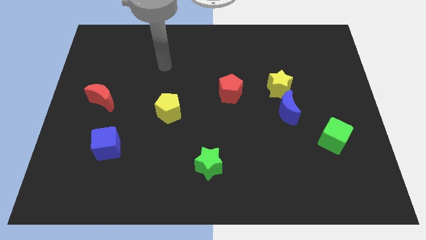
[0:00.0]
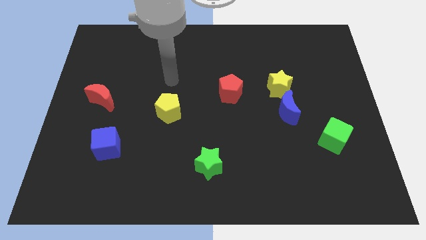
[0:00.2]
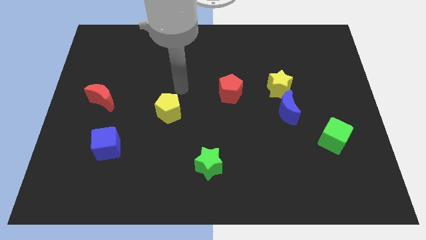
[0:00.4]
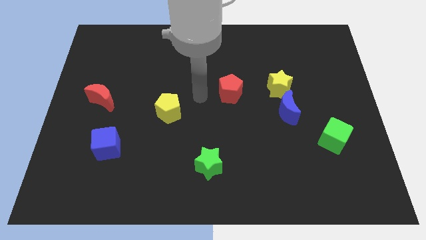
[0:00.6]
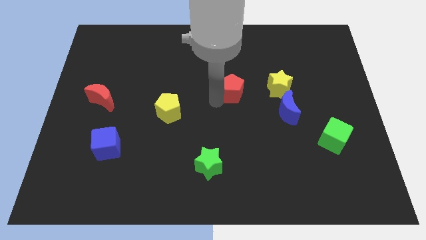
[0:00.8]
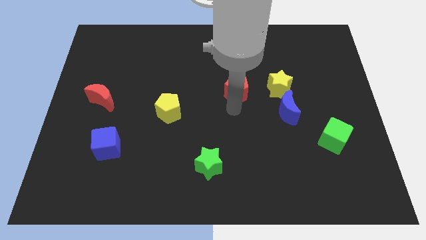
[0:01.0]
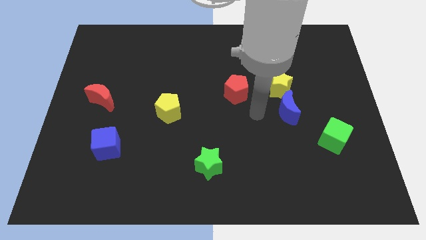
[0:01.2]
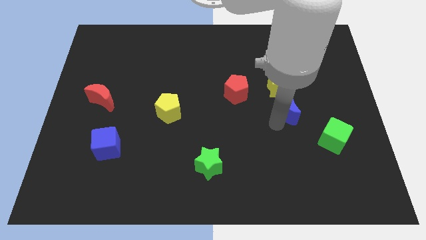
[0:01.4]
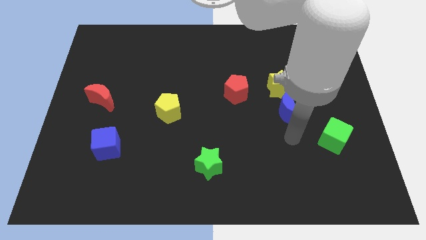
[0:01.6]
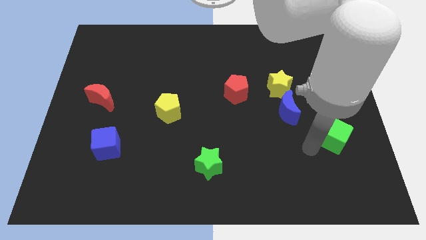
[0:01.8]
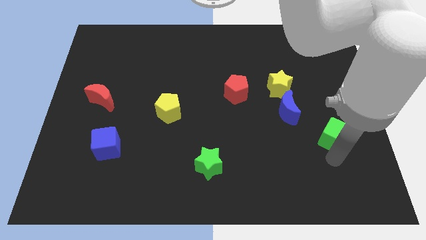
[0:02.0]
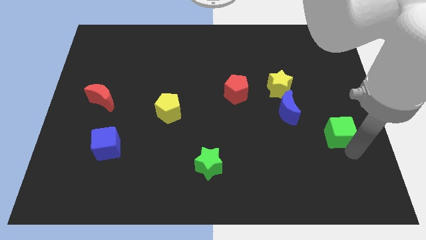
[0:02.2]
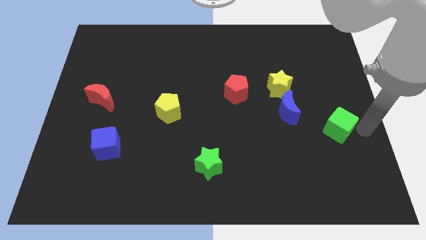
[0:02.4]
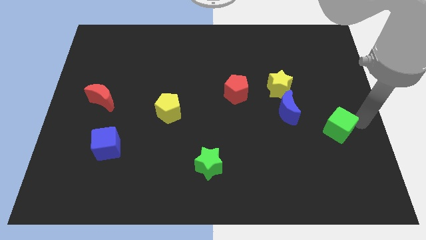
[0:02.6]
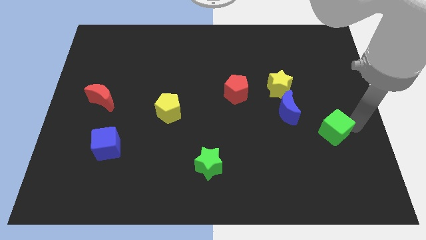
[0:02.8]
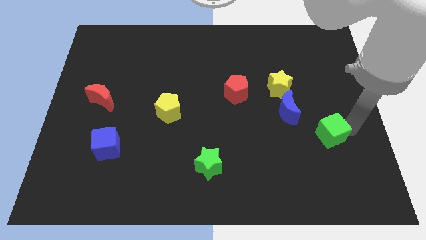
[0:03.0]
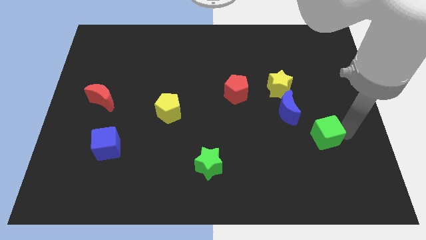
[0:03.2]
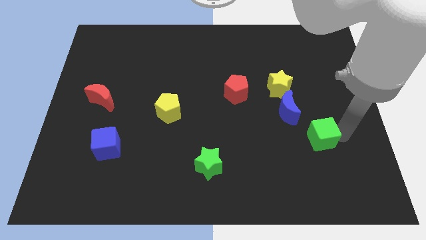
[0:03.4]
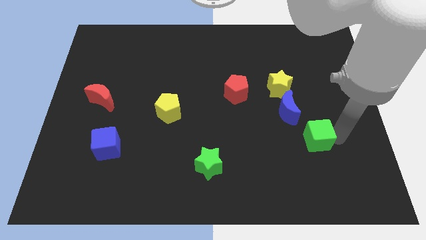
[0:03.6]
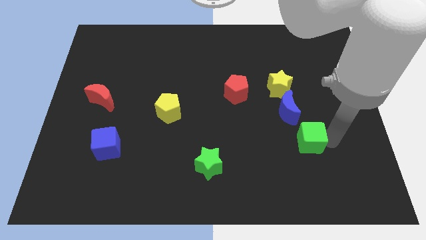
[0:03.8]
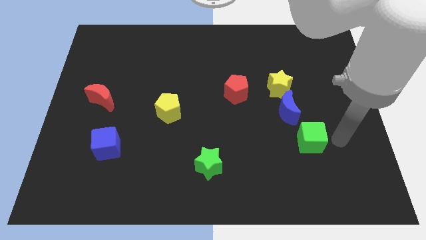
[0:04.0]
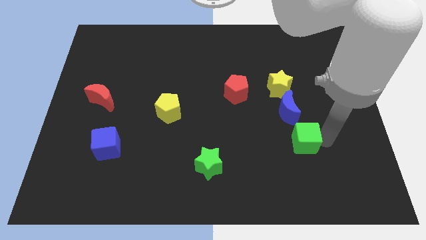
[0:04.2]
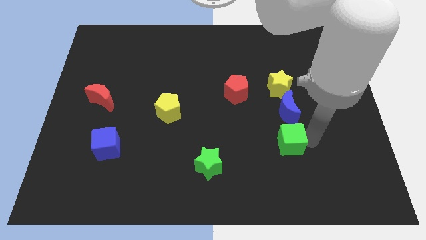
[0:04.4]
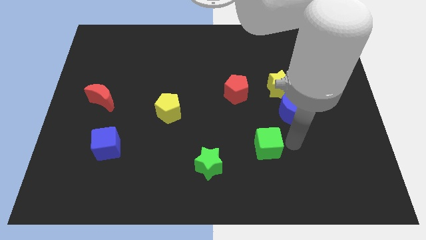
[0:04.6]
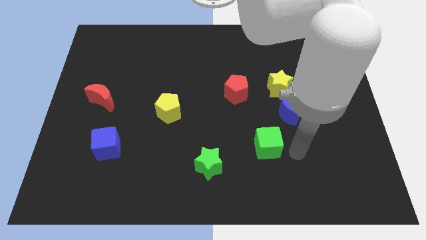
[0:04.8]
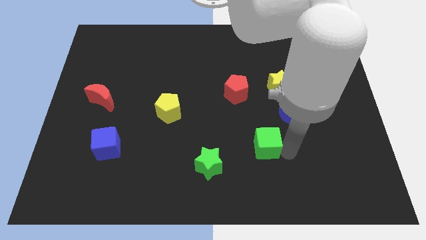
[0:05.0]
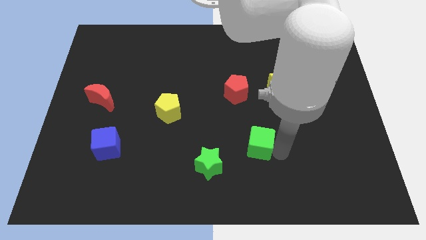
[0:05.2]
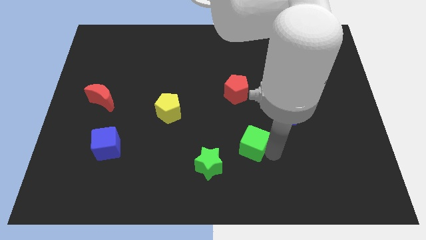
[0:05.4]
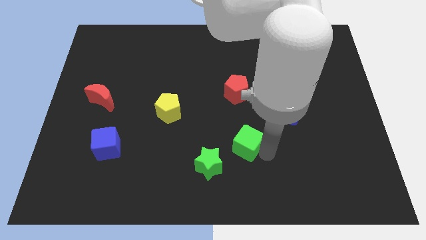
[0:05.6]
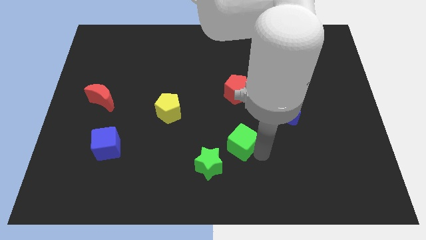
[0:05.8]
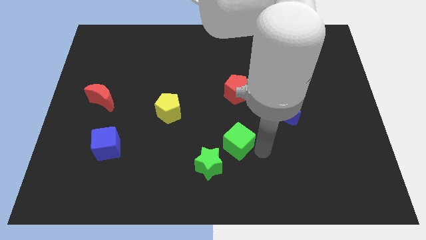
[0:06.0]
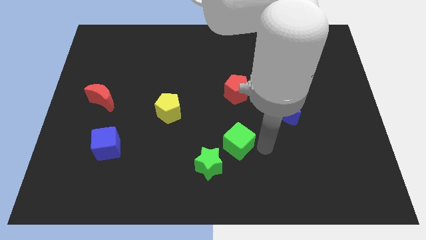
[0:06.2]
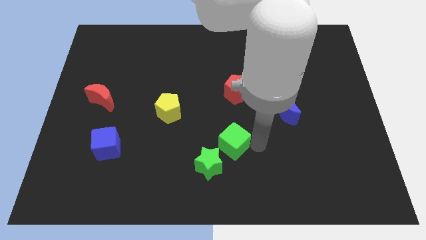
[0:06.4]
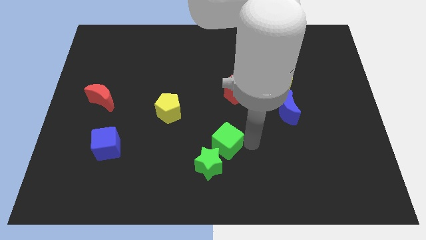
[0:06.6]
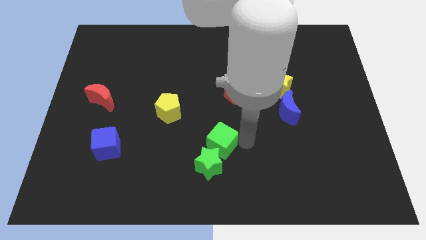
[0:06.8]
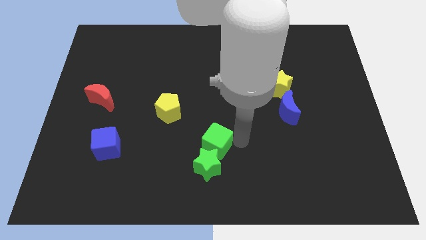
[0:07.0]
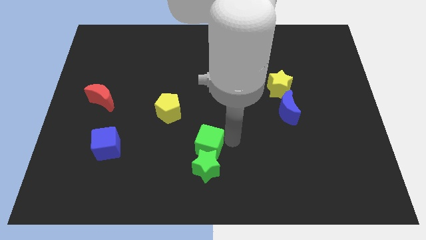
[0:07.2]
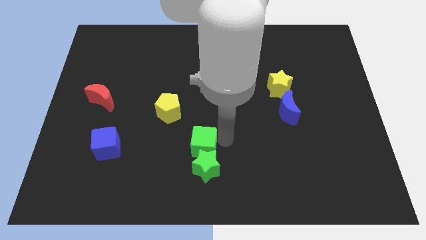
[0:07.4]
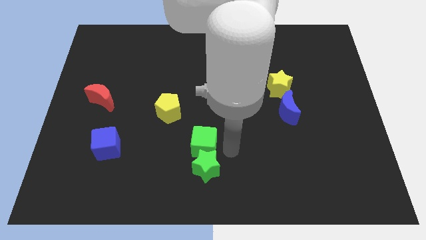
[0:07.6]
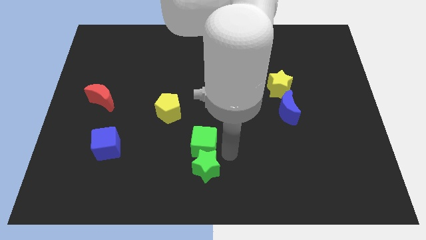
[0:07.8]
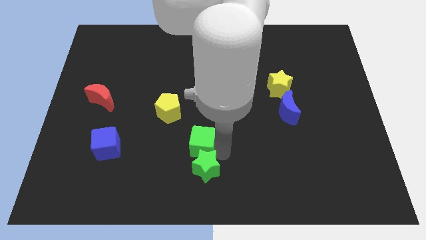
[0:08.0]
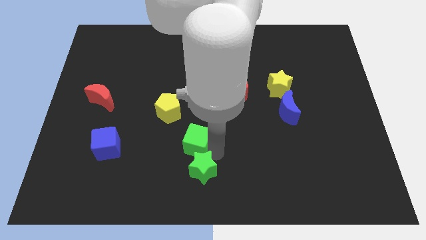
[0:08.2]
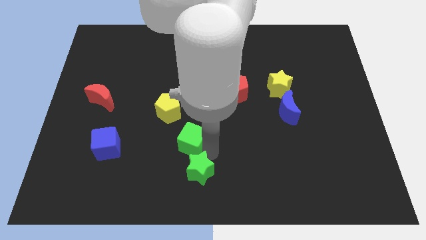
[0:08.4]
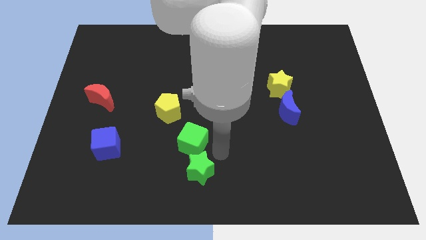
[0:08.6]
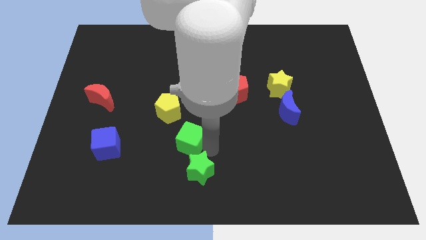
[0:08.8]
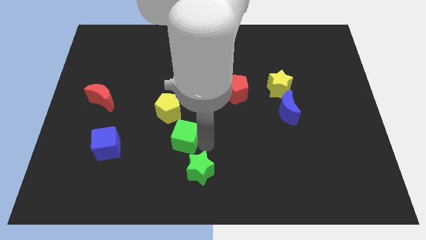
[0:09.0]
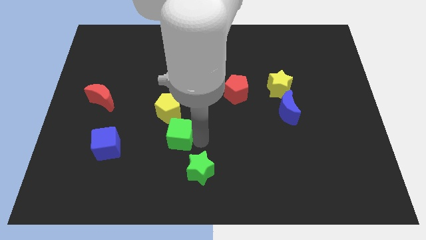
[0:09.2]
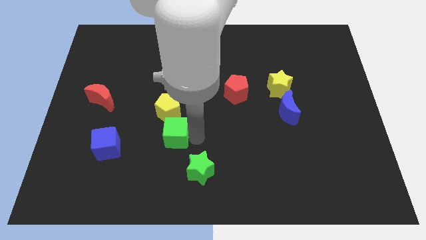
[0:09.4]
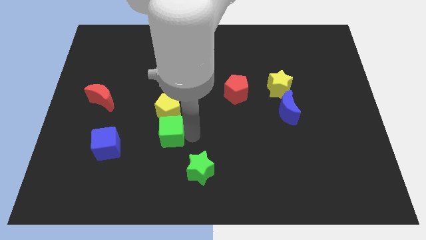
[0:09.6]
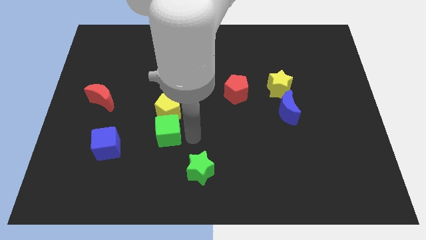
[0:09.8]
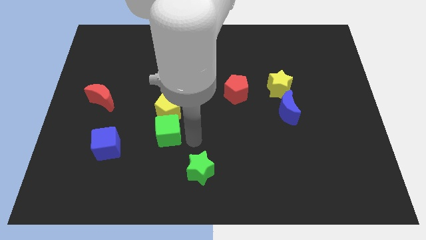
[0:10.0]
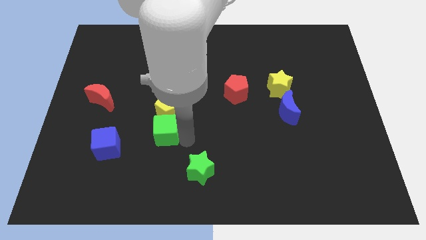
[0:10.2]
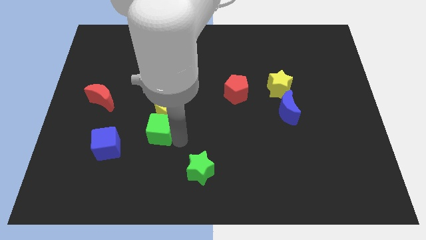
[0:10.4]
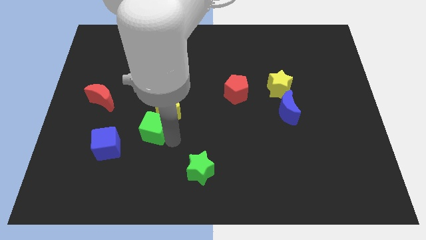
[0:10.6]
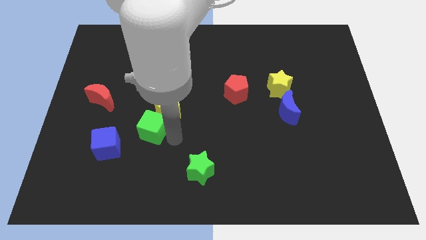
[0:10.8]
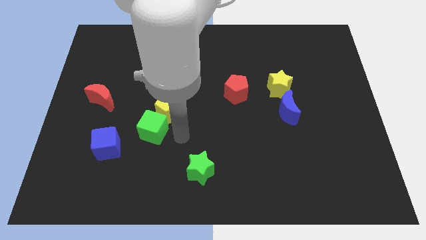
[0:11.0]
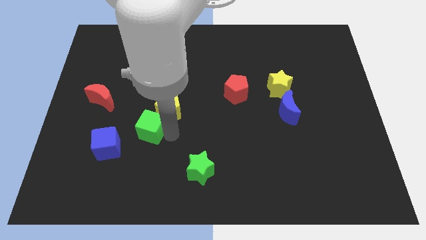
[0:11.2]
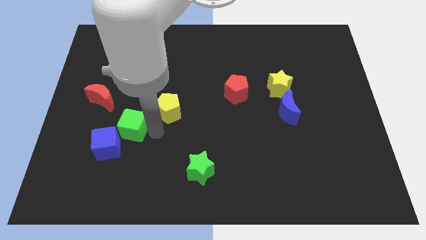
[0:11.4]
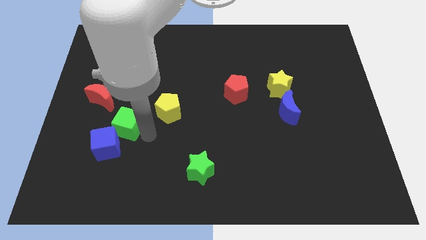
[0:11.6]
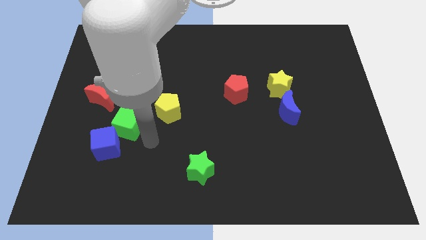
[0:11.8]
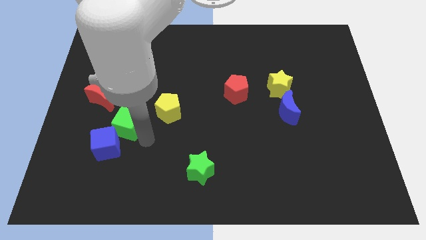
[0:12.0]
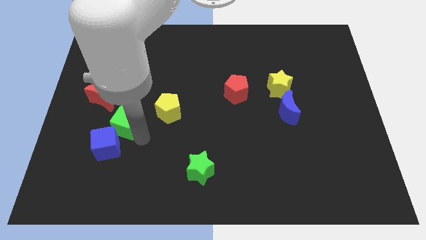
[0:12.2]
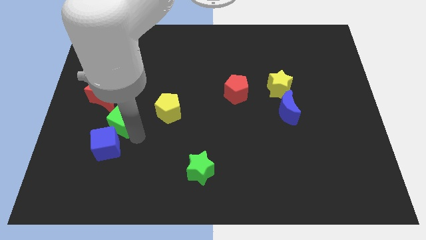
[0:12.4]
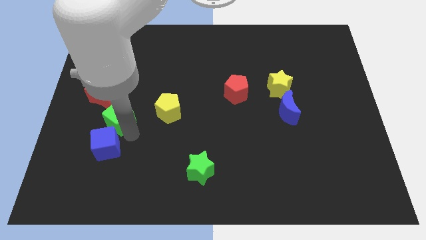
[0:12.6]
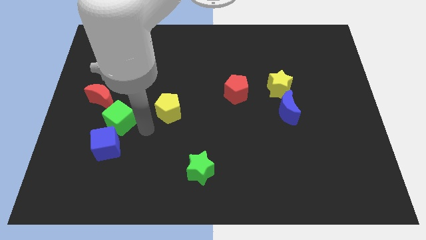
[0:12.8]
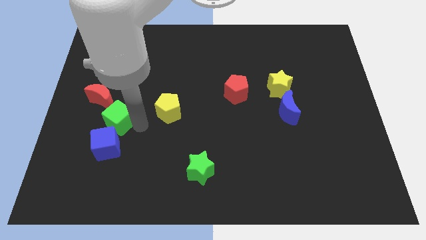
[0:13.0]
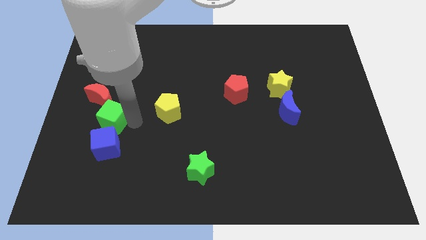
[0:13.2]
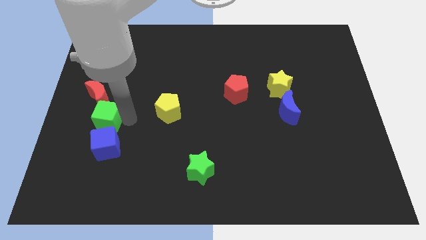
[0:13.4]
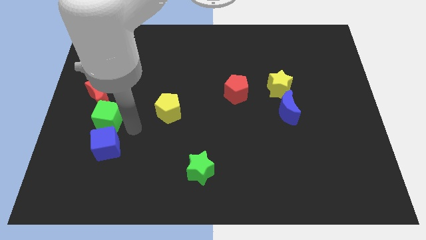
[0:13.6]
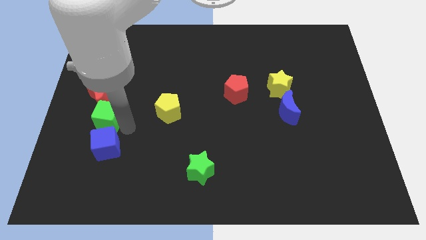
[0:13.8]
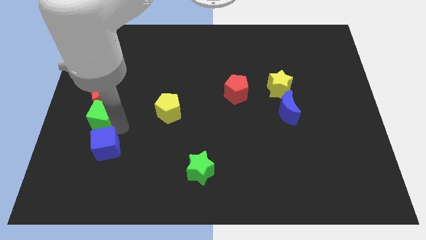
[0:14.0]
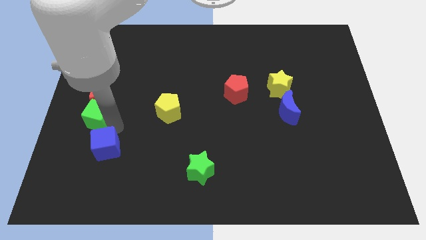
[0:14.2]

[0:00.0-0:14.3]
push the green cube to the left side
